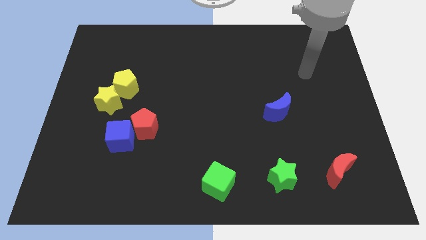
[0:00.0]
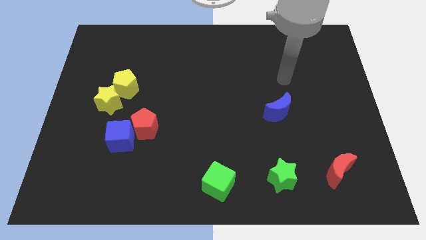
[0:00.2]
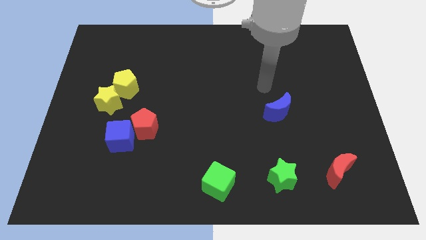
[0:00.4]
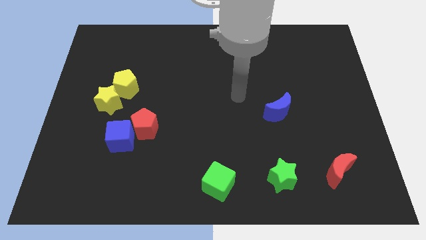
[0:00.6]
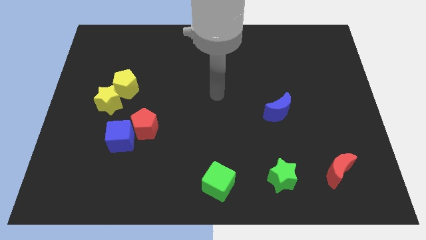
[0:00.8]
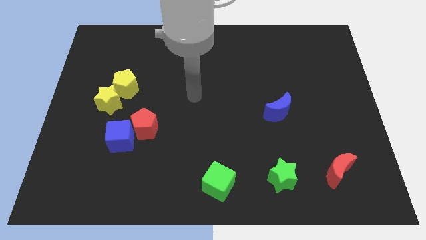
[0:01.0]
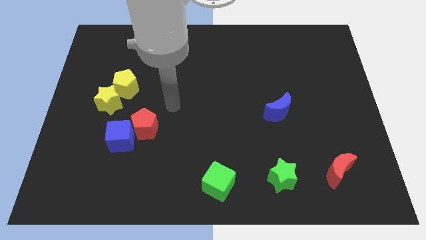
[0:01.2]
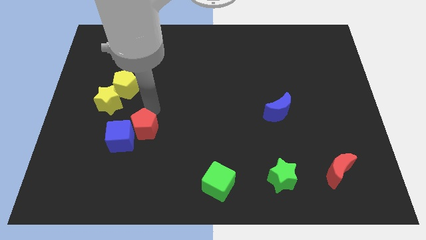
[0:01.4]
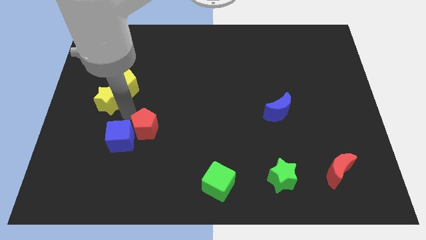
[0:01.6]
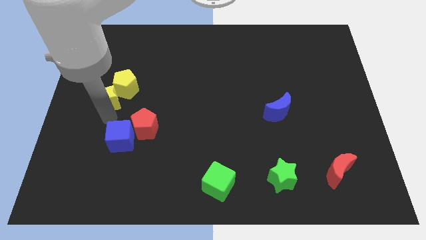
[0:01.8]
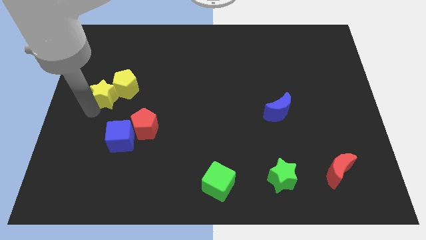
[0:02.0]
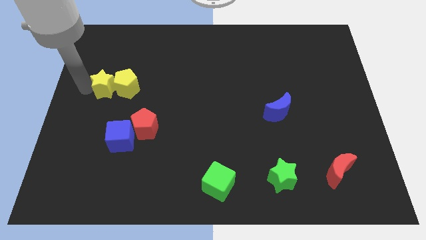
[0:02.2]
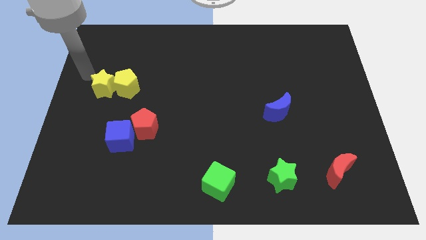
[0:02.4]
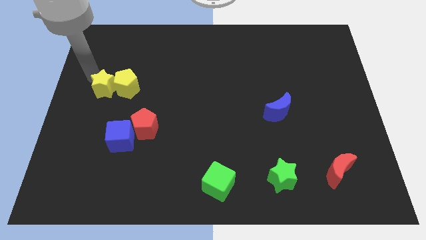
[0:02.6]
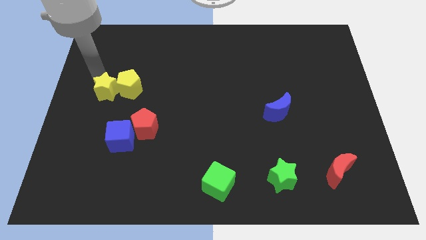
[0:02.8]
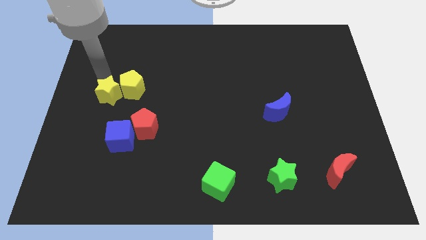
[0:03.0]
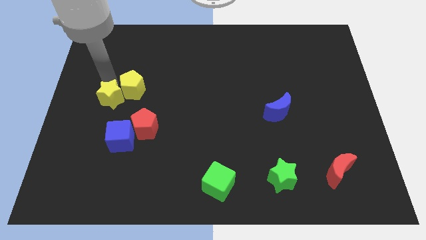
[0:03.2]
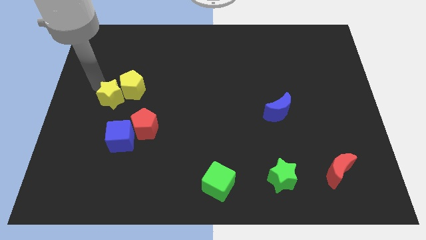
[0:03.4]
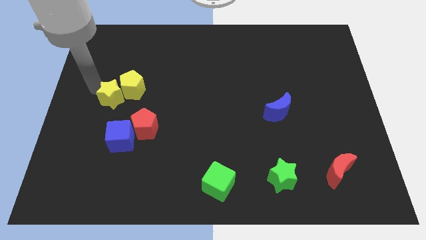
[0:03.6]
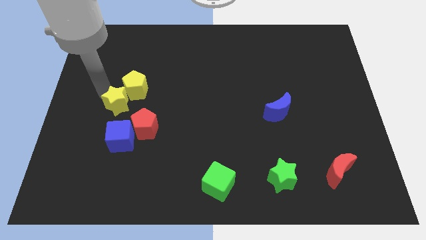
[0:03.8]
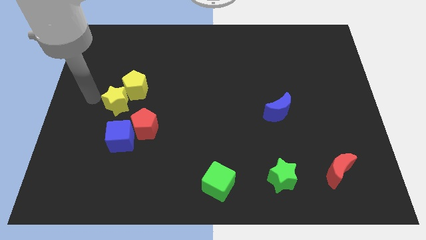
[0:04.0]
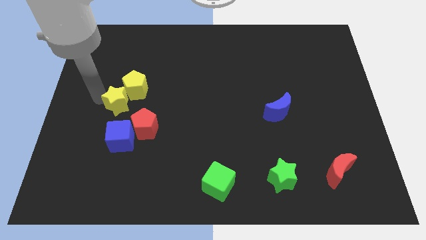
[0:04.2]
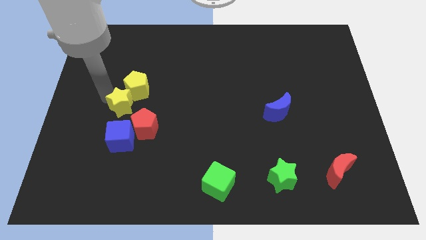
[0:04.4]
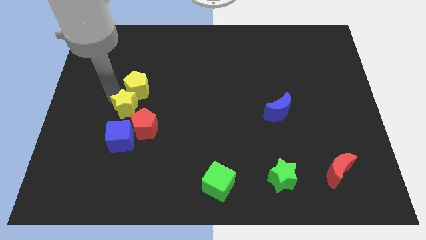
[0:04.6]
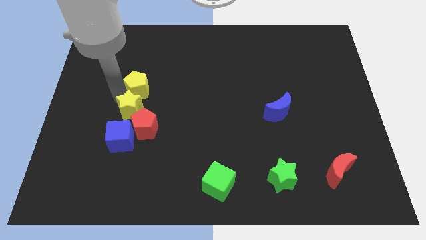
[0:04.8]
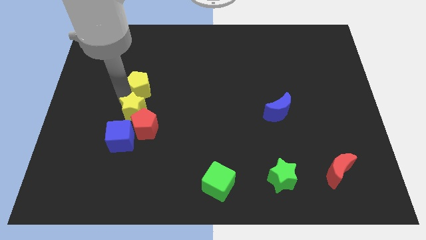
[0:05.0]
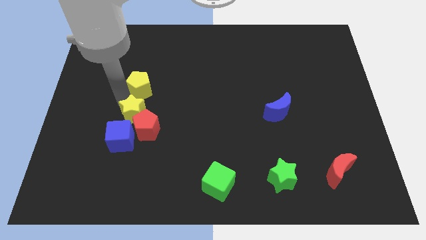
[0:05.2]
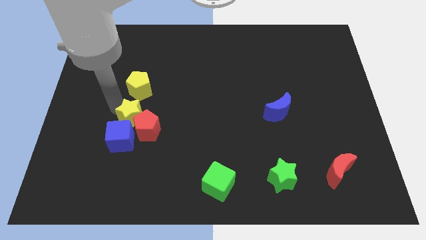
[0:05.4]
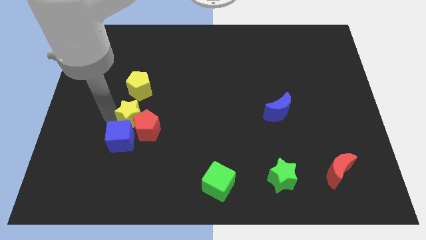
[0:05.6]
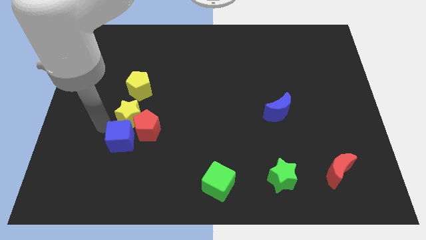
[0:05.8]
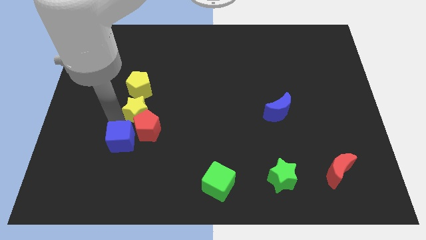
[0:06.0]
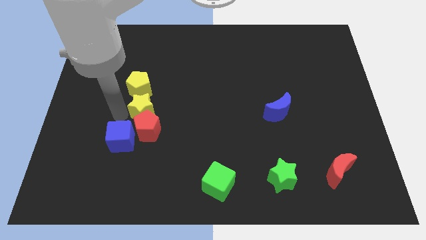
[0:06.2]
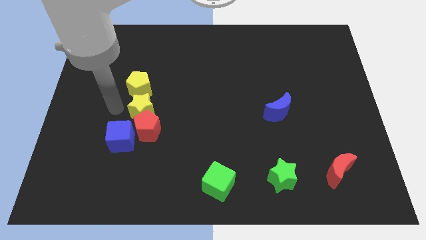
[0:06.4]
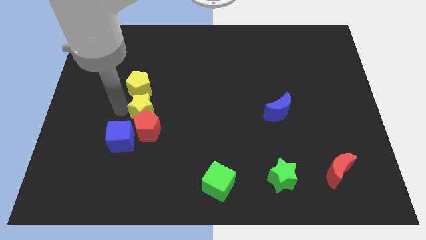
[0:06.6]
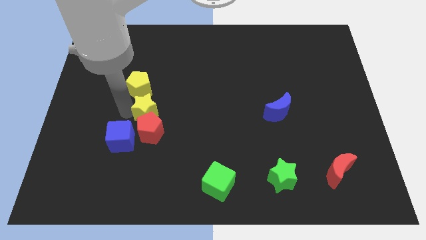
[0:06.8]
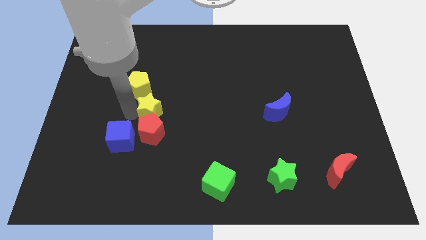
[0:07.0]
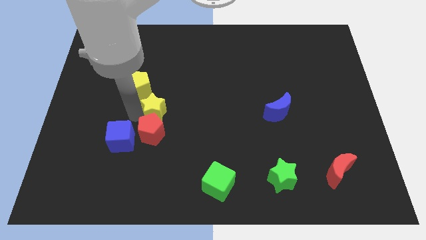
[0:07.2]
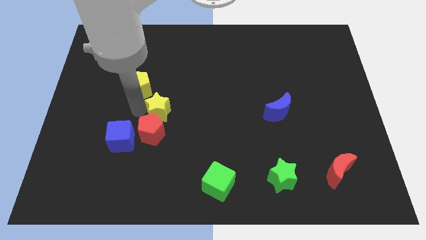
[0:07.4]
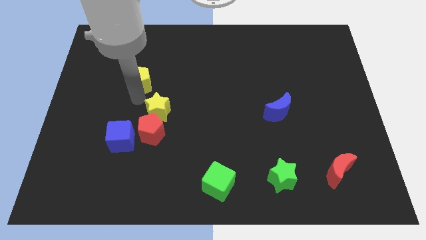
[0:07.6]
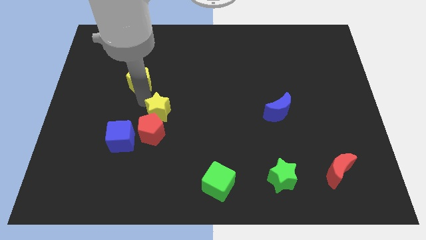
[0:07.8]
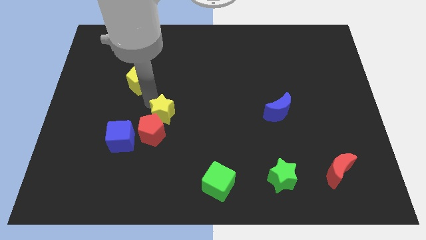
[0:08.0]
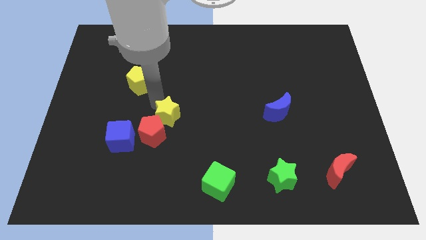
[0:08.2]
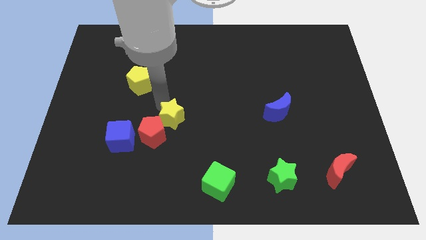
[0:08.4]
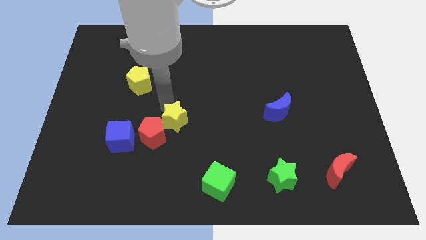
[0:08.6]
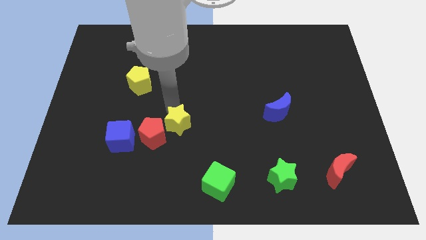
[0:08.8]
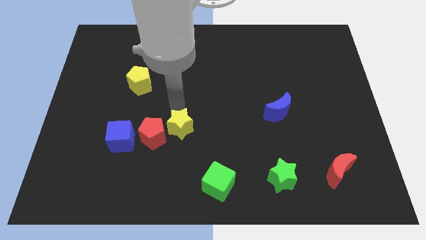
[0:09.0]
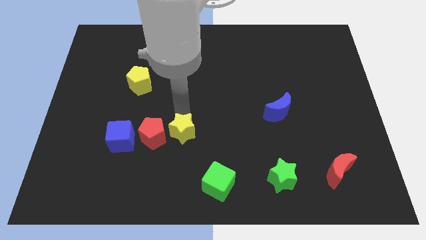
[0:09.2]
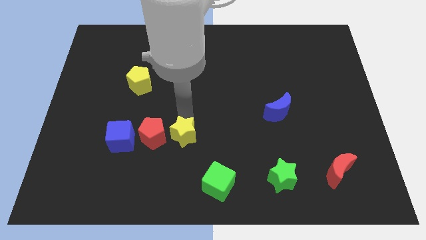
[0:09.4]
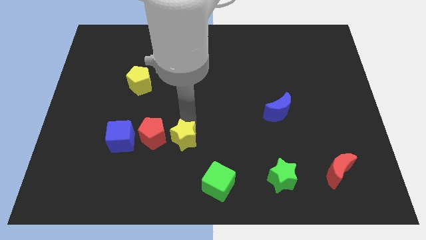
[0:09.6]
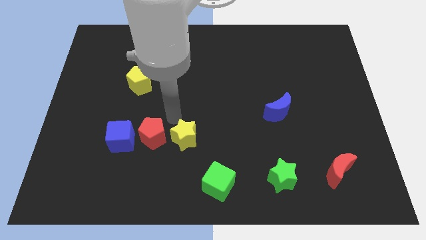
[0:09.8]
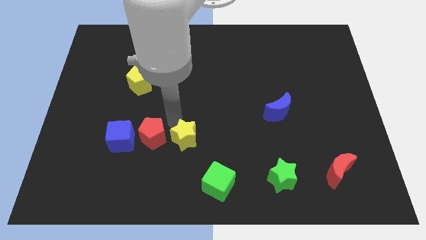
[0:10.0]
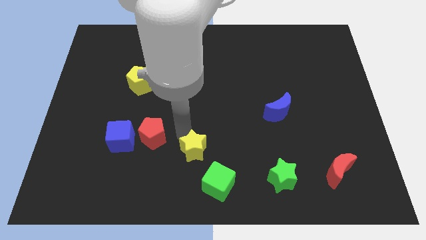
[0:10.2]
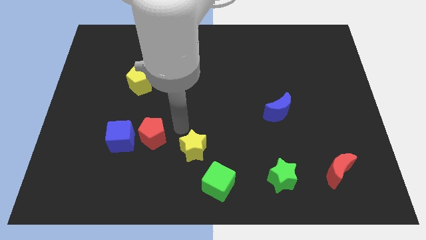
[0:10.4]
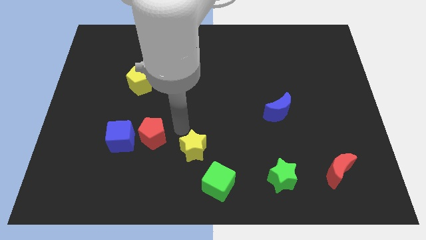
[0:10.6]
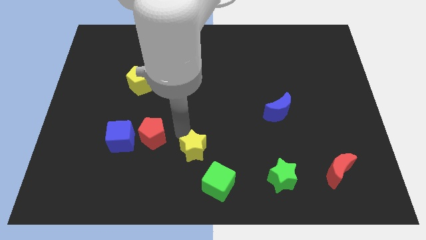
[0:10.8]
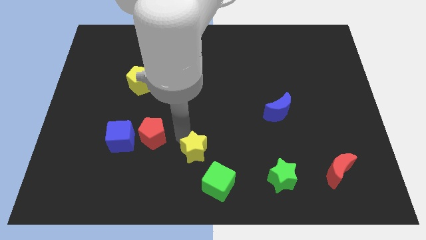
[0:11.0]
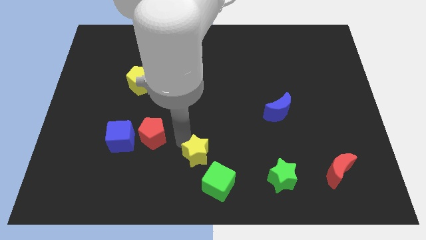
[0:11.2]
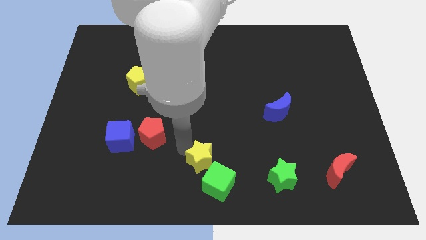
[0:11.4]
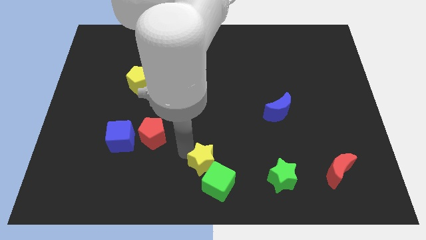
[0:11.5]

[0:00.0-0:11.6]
put the yellow star to the green cube

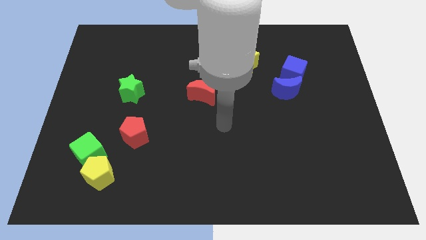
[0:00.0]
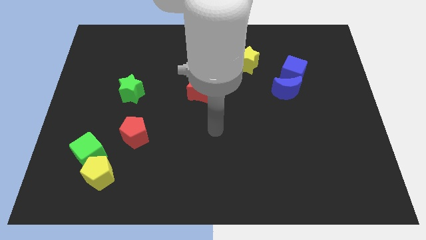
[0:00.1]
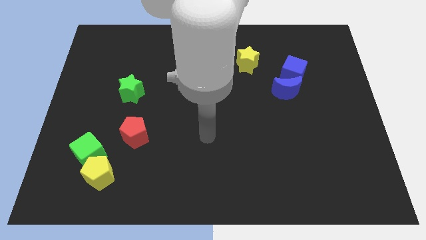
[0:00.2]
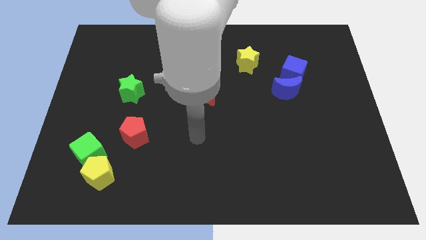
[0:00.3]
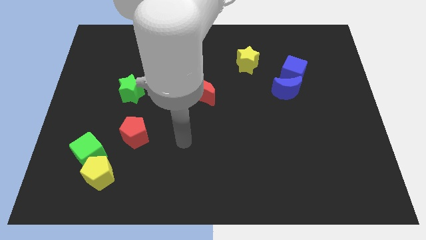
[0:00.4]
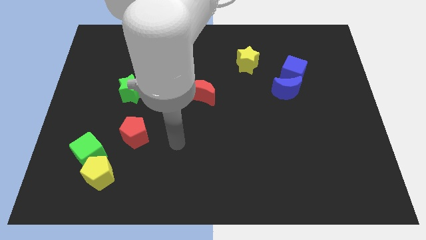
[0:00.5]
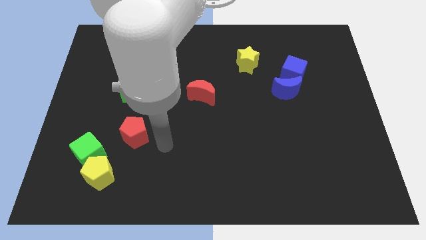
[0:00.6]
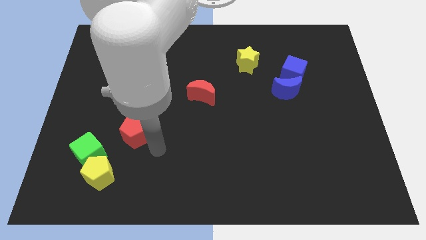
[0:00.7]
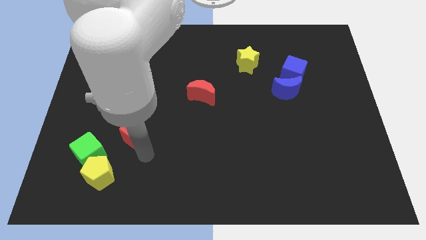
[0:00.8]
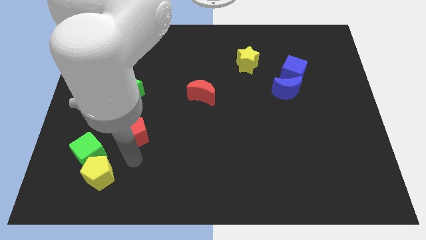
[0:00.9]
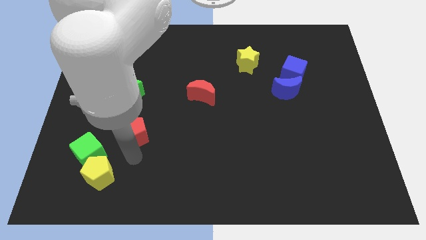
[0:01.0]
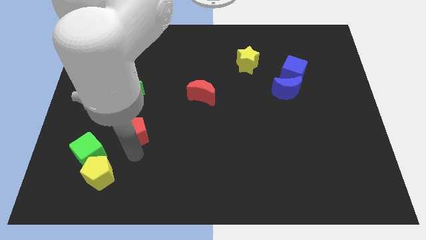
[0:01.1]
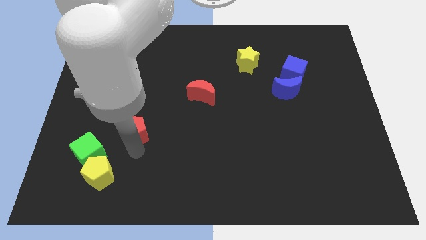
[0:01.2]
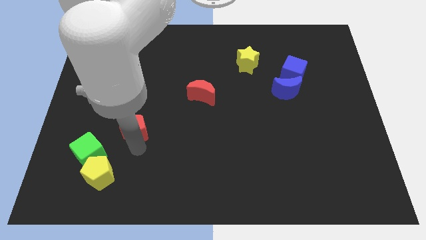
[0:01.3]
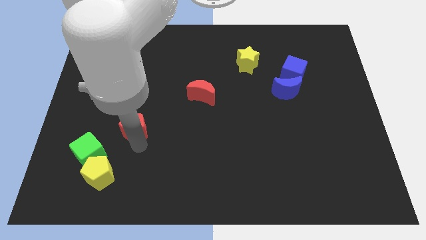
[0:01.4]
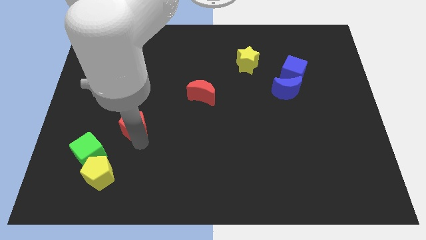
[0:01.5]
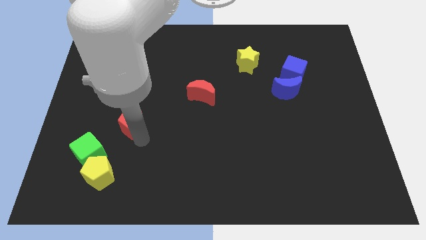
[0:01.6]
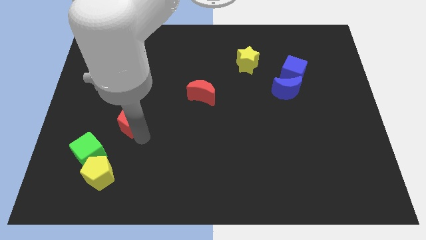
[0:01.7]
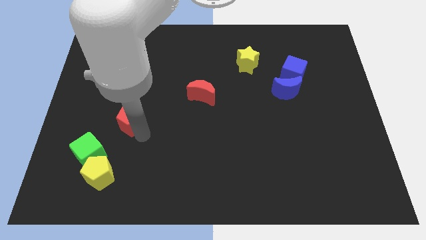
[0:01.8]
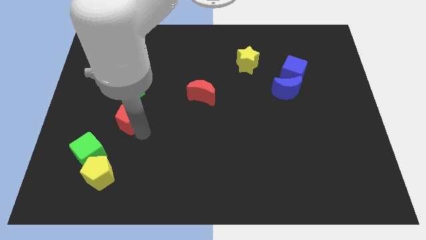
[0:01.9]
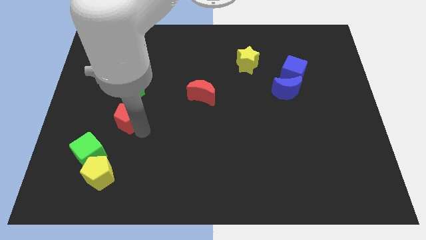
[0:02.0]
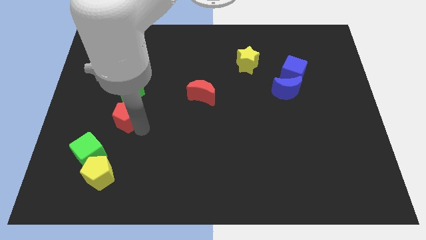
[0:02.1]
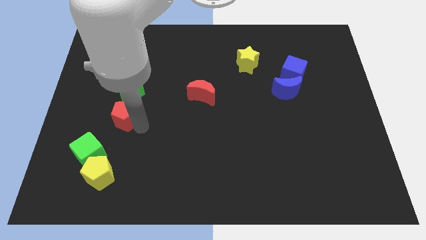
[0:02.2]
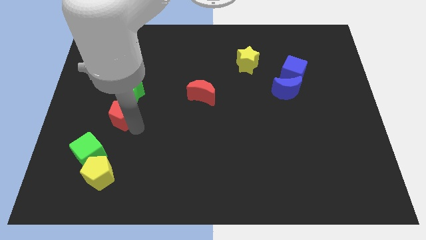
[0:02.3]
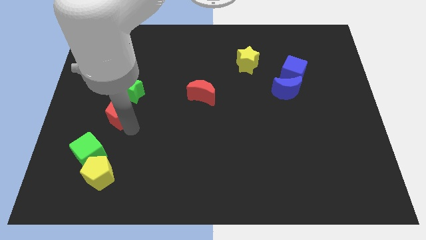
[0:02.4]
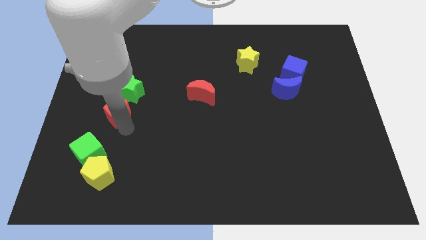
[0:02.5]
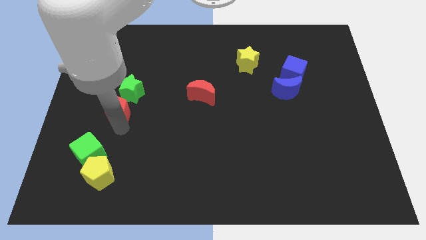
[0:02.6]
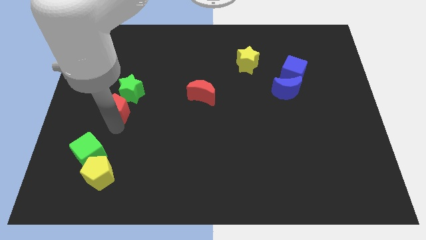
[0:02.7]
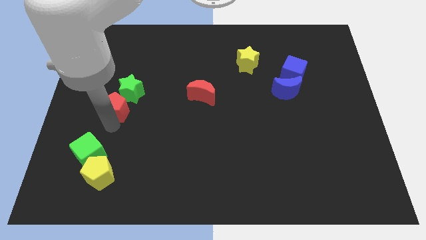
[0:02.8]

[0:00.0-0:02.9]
slide the red pentagon towards the green star
